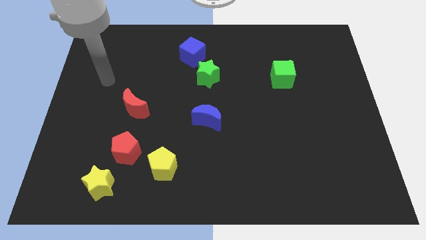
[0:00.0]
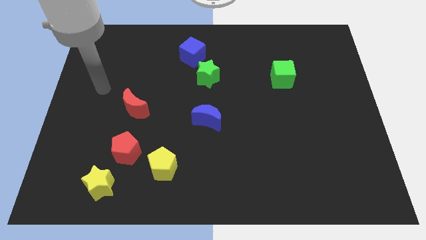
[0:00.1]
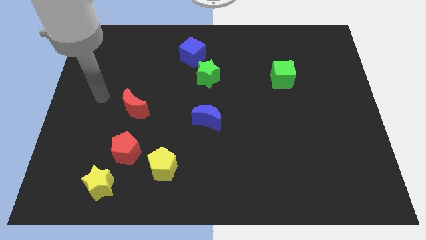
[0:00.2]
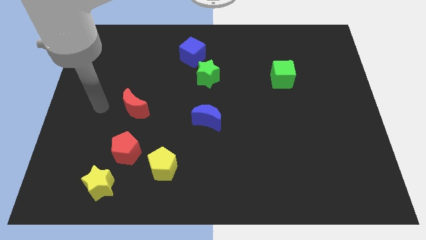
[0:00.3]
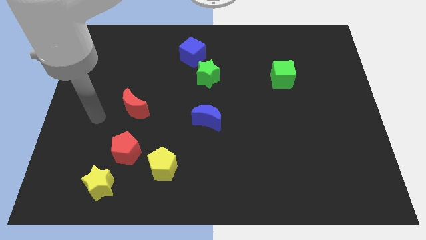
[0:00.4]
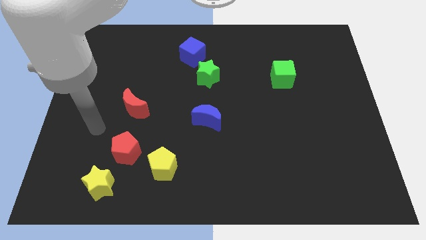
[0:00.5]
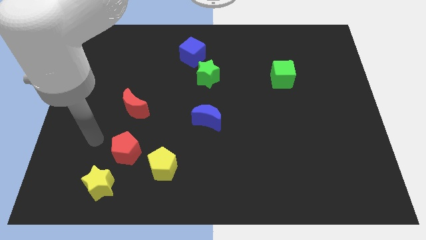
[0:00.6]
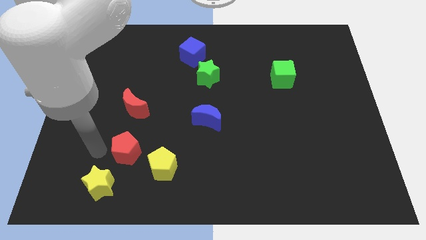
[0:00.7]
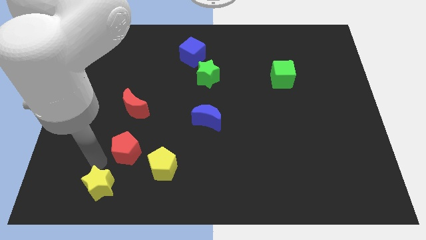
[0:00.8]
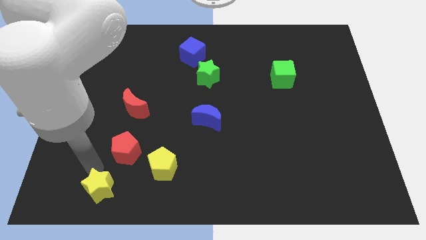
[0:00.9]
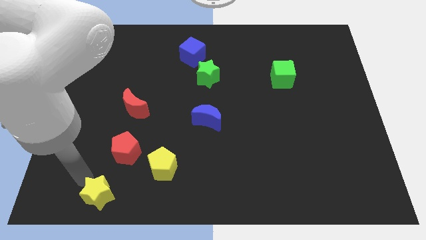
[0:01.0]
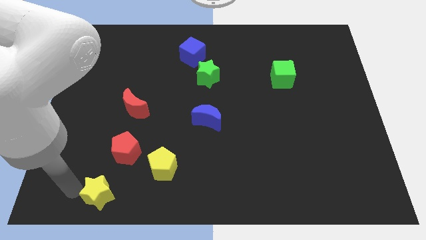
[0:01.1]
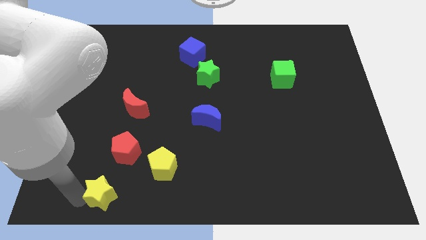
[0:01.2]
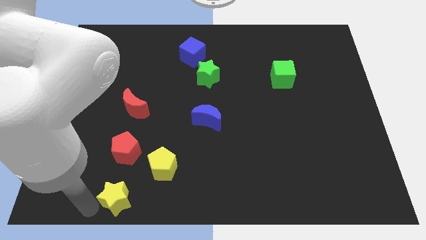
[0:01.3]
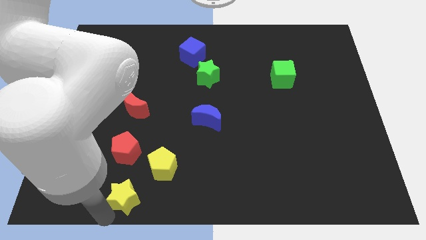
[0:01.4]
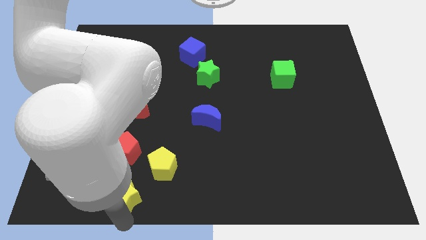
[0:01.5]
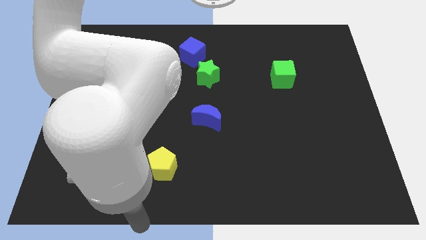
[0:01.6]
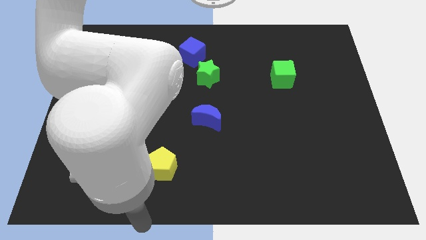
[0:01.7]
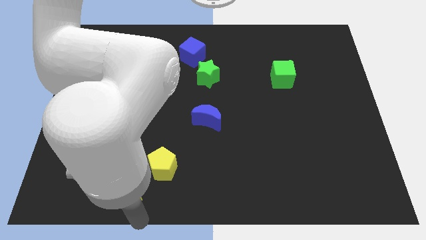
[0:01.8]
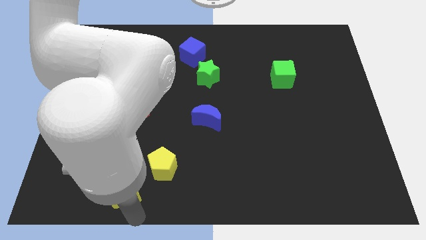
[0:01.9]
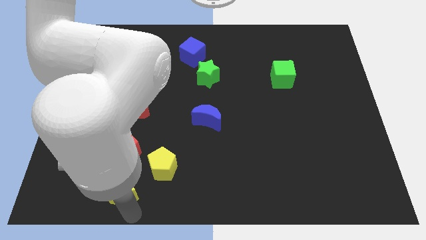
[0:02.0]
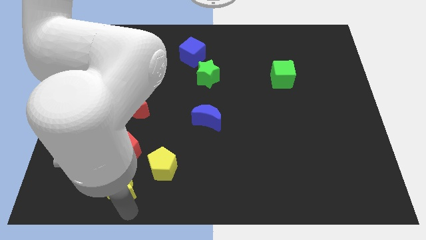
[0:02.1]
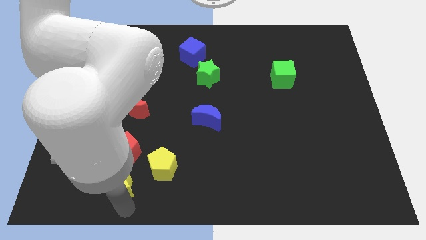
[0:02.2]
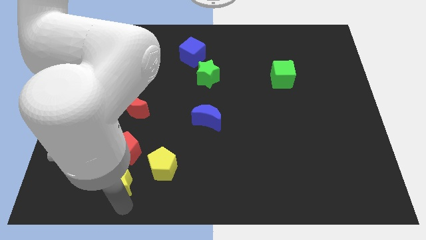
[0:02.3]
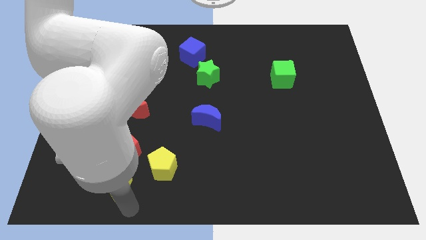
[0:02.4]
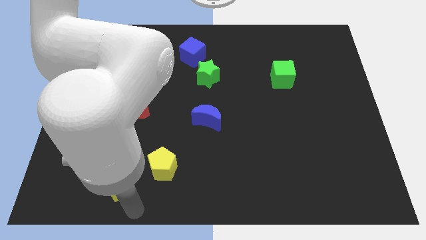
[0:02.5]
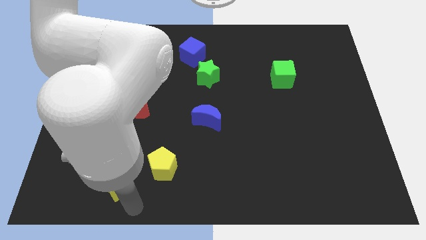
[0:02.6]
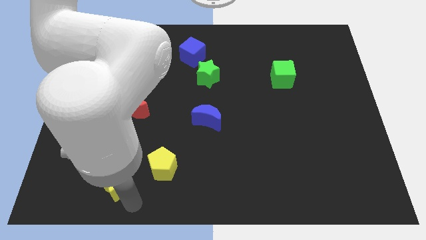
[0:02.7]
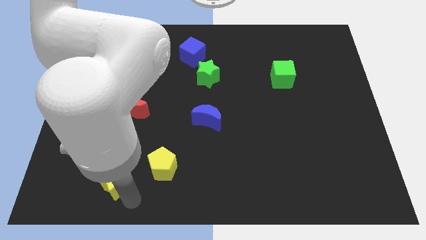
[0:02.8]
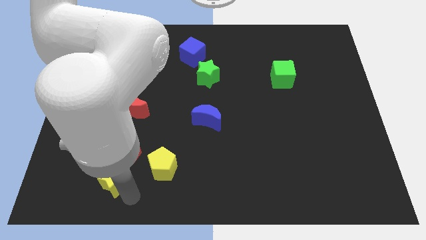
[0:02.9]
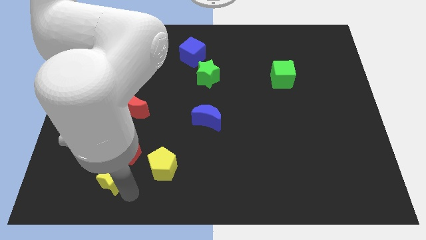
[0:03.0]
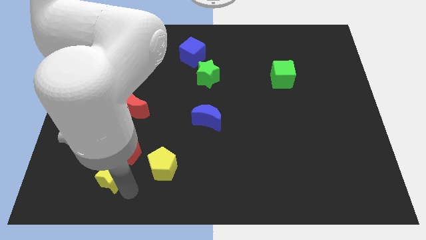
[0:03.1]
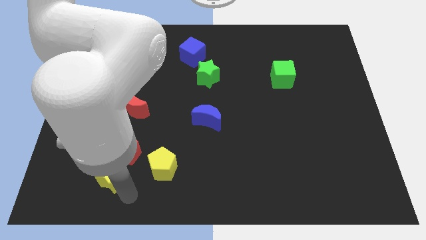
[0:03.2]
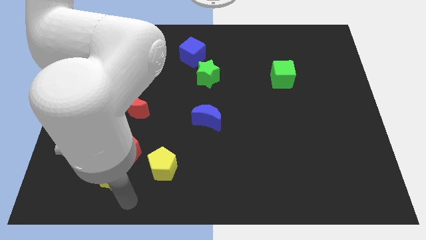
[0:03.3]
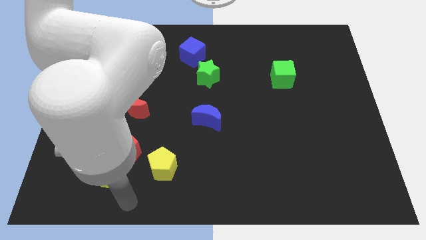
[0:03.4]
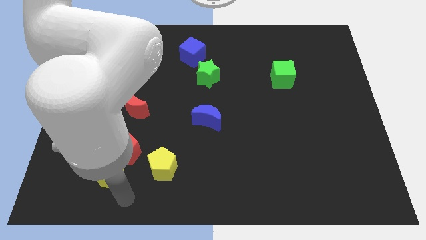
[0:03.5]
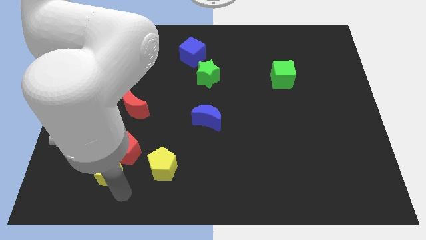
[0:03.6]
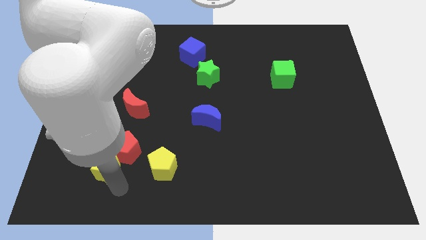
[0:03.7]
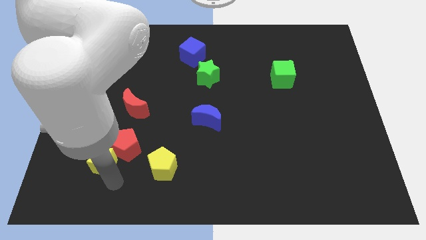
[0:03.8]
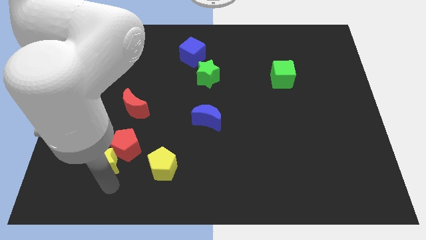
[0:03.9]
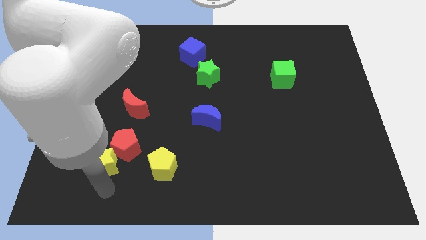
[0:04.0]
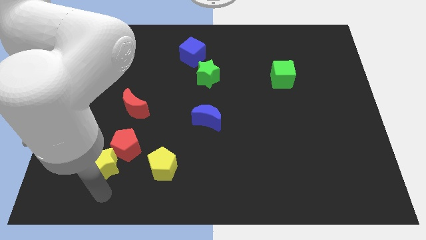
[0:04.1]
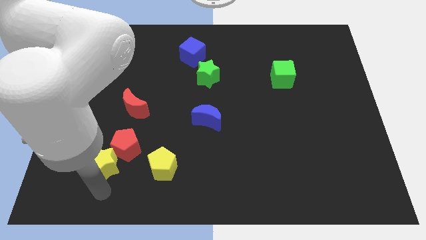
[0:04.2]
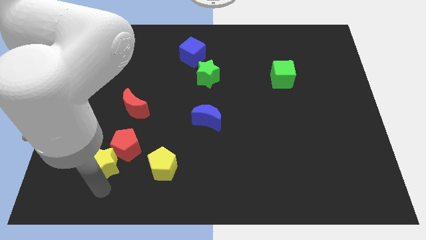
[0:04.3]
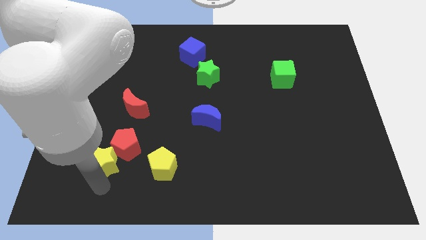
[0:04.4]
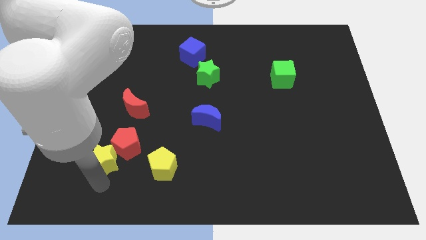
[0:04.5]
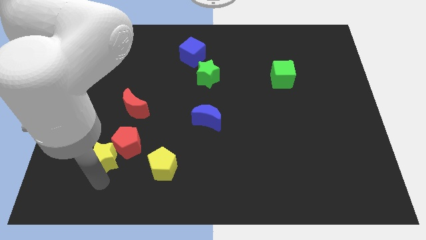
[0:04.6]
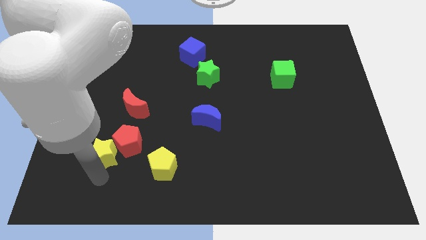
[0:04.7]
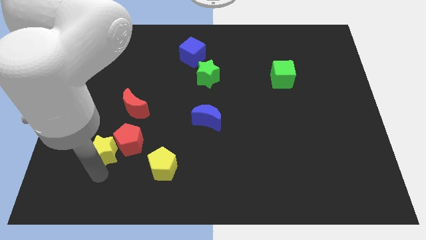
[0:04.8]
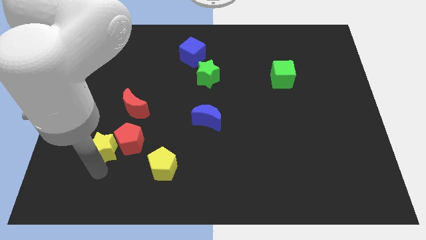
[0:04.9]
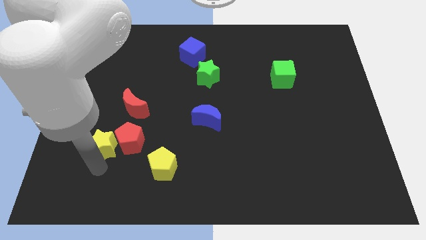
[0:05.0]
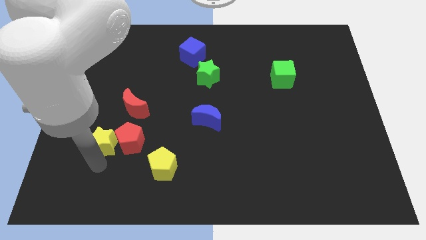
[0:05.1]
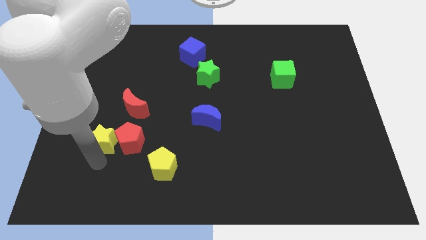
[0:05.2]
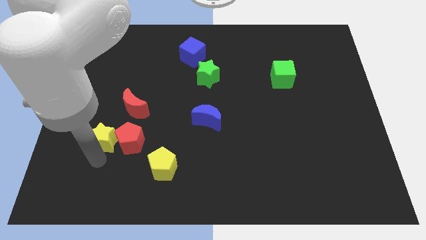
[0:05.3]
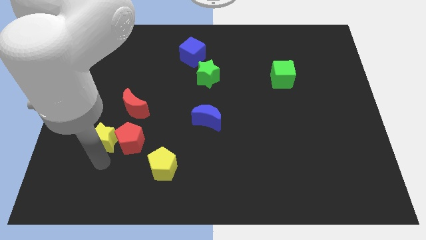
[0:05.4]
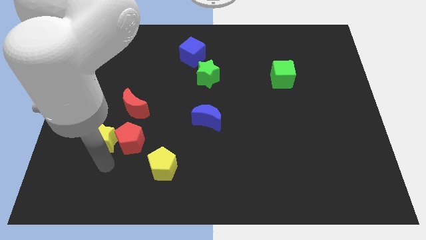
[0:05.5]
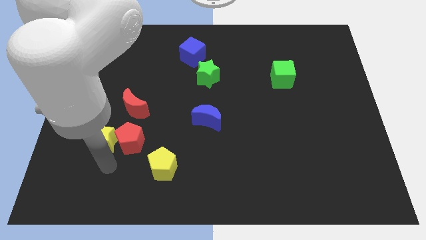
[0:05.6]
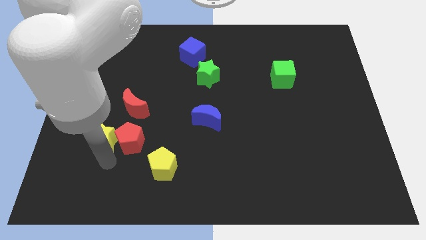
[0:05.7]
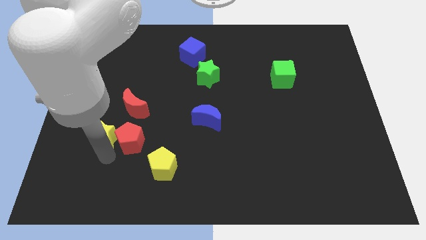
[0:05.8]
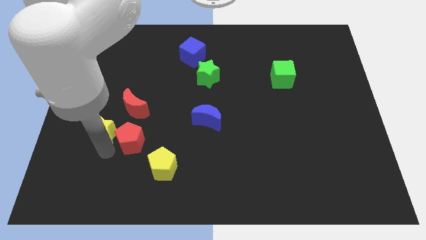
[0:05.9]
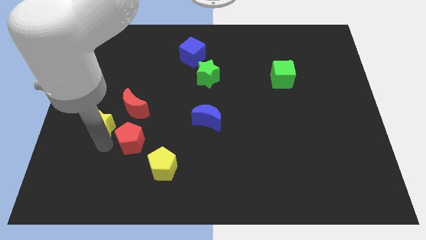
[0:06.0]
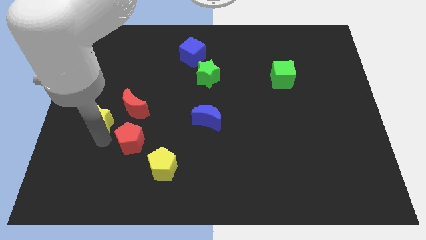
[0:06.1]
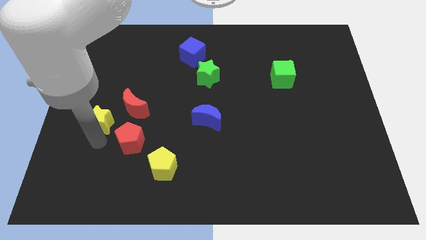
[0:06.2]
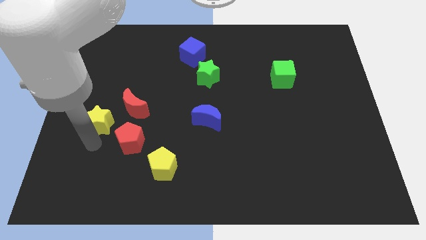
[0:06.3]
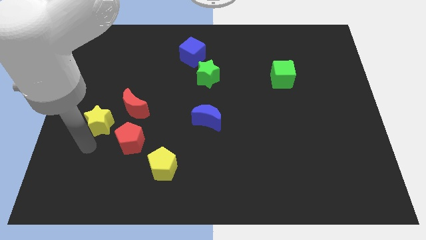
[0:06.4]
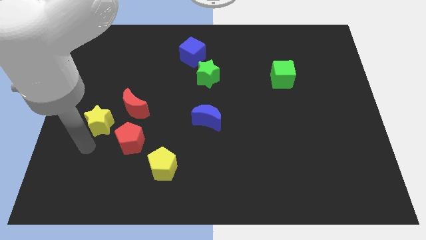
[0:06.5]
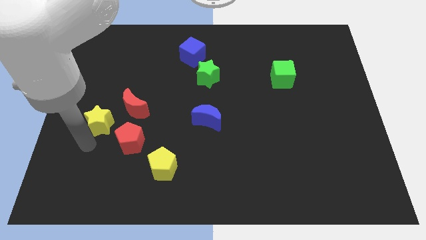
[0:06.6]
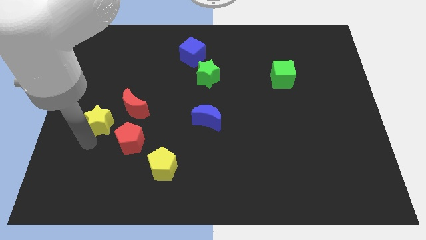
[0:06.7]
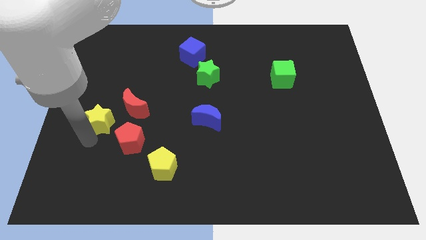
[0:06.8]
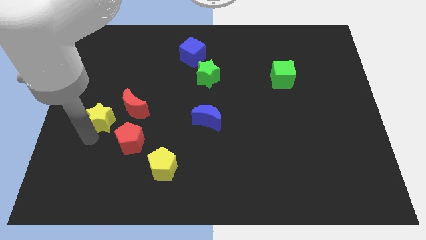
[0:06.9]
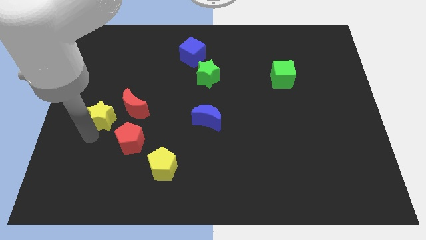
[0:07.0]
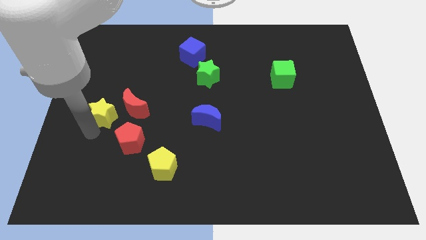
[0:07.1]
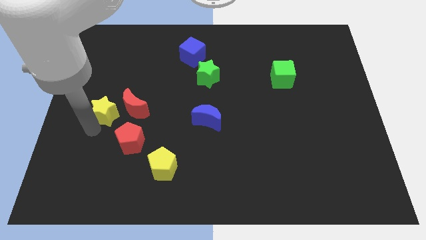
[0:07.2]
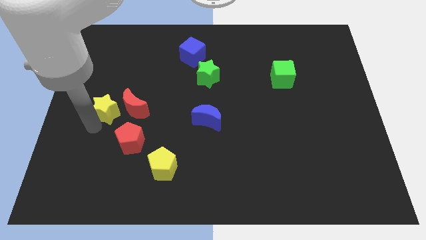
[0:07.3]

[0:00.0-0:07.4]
move the yellow star to the top left side of the red moon

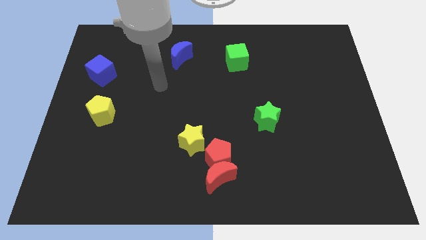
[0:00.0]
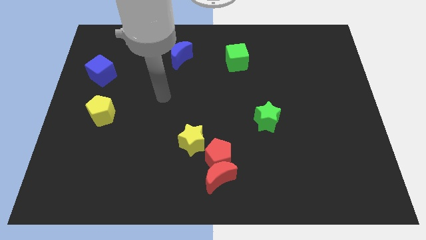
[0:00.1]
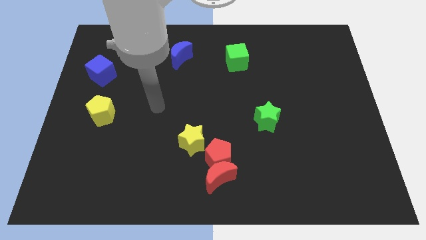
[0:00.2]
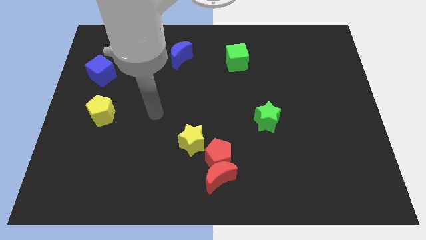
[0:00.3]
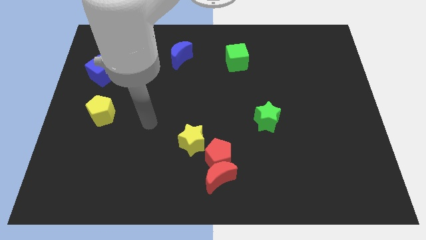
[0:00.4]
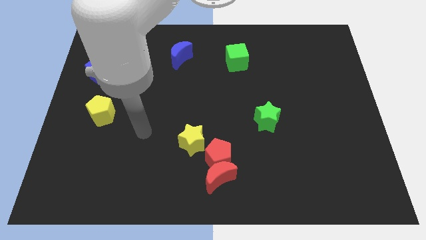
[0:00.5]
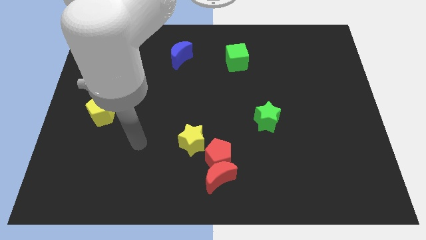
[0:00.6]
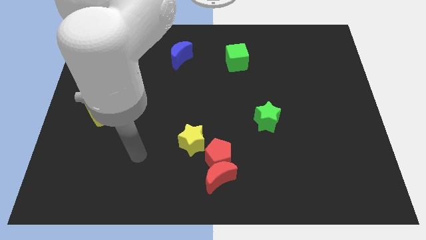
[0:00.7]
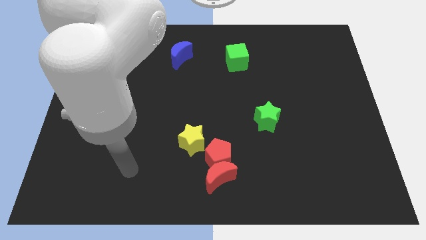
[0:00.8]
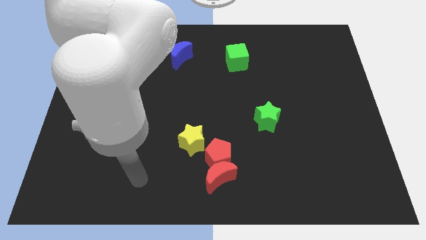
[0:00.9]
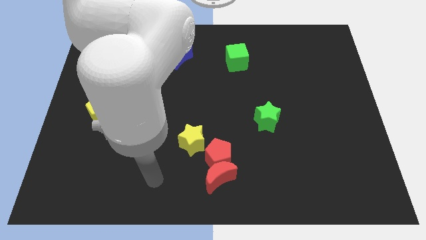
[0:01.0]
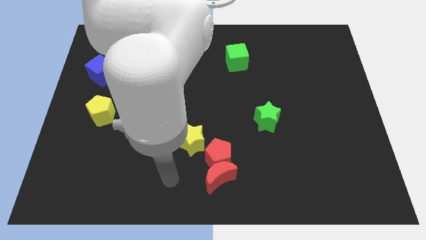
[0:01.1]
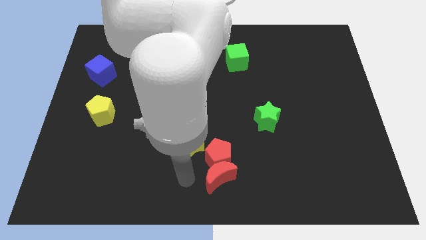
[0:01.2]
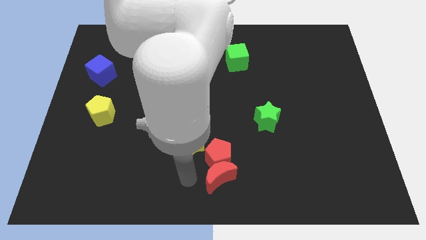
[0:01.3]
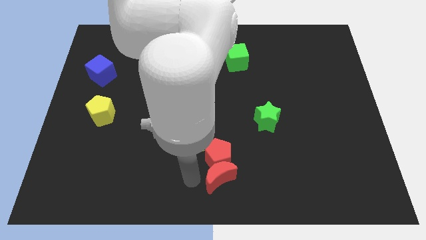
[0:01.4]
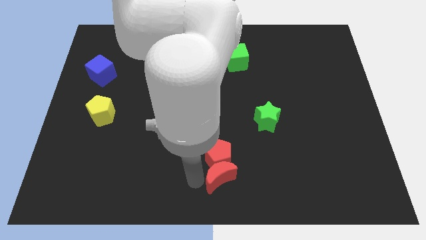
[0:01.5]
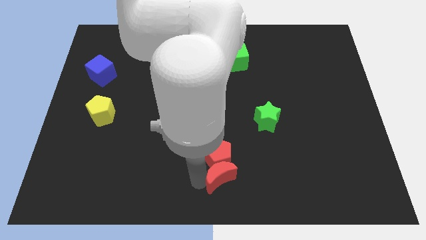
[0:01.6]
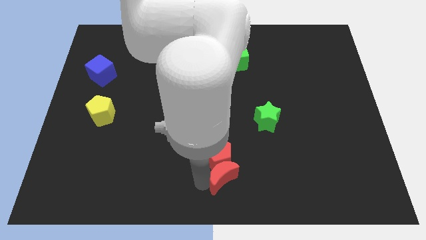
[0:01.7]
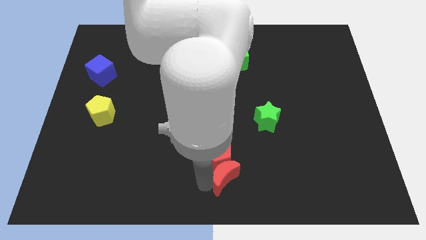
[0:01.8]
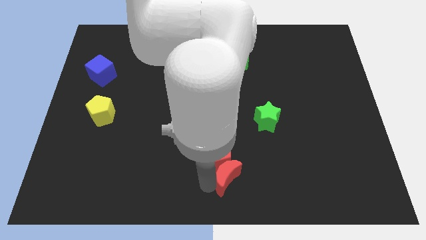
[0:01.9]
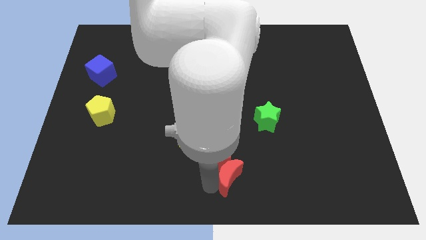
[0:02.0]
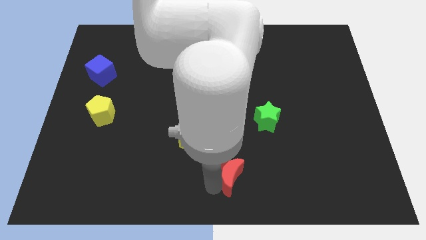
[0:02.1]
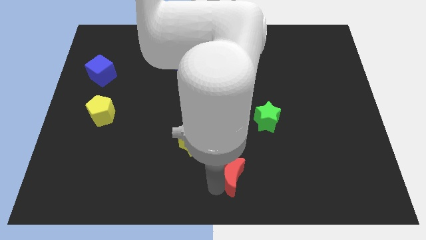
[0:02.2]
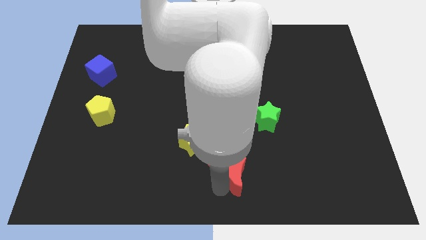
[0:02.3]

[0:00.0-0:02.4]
put the red moon right of the red pentagon
